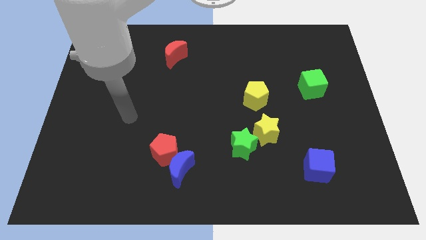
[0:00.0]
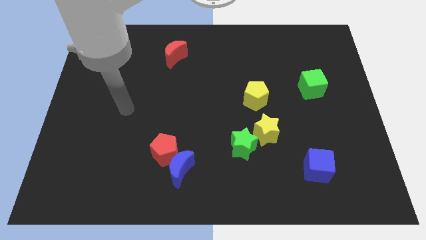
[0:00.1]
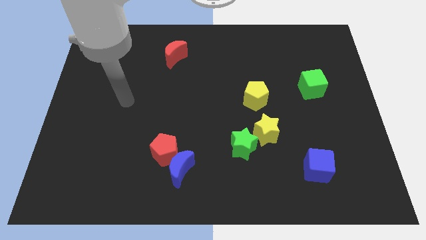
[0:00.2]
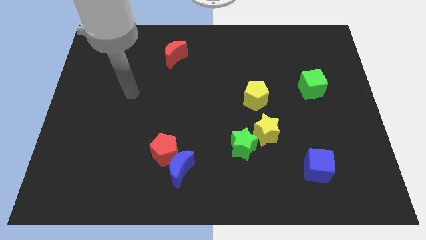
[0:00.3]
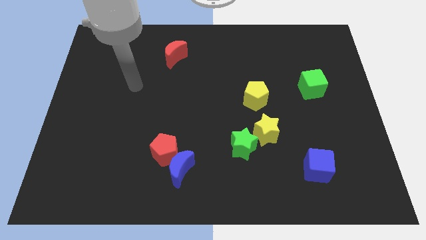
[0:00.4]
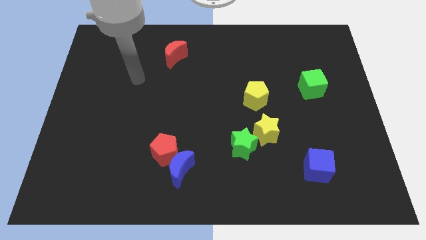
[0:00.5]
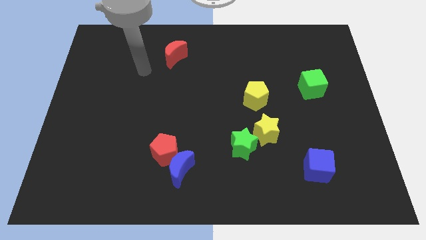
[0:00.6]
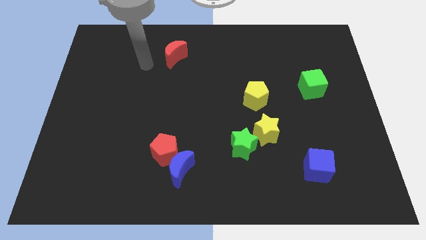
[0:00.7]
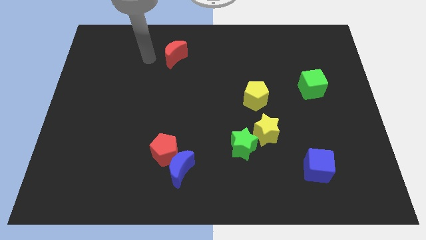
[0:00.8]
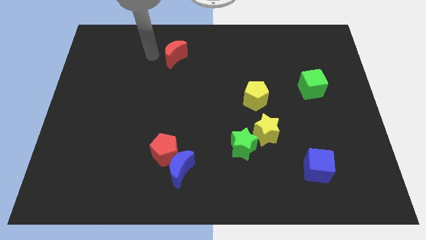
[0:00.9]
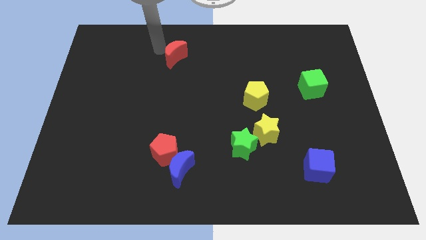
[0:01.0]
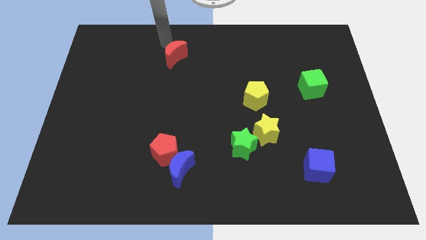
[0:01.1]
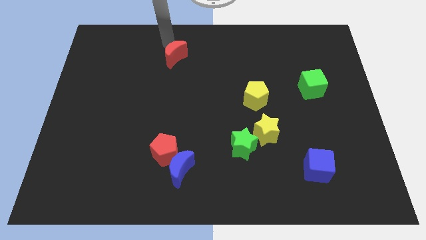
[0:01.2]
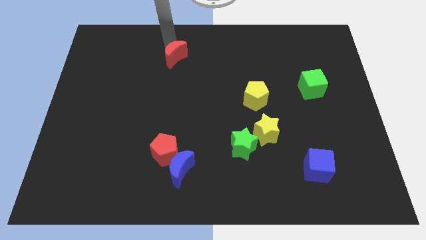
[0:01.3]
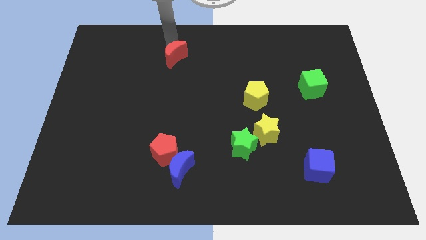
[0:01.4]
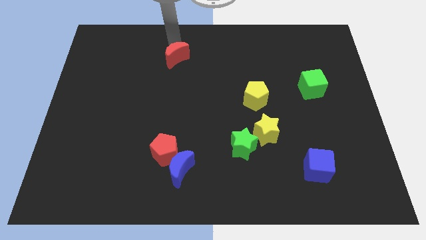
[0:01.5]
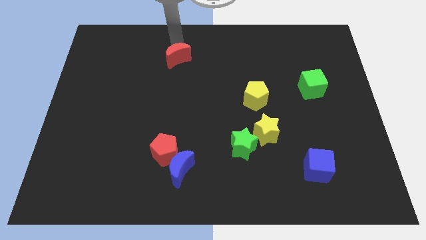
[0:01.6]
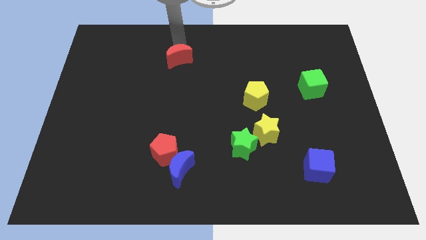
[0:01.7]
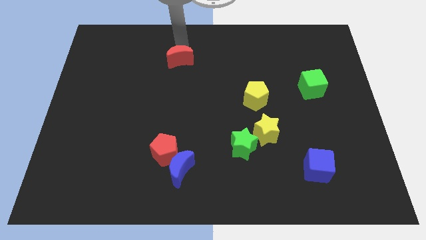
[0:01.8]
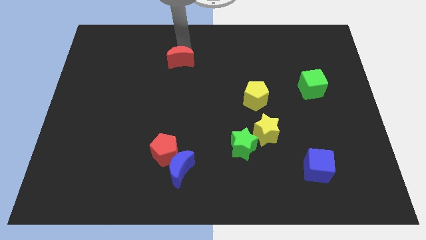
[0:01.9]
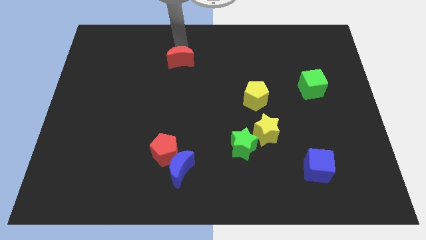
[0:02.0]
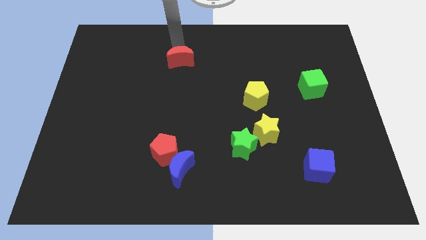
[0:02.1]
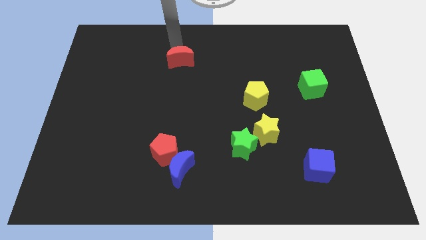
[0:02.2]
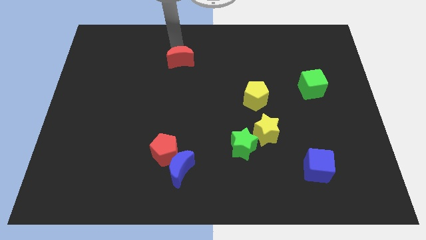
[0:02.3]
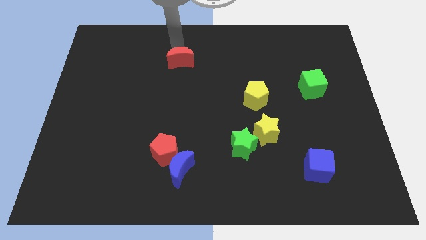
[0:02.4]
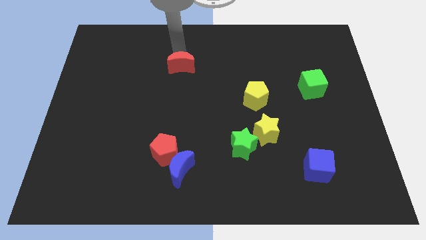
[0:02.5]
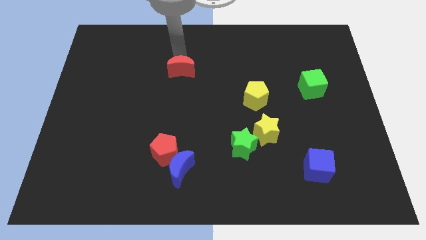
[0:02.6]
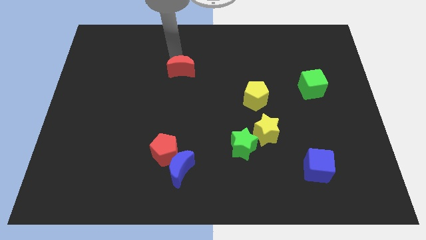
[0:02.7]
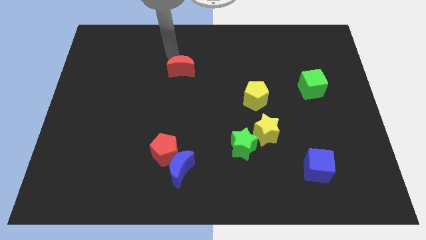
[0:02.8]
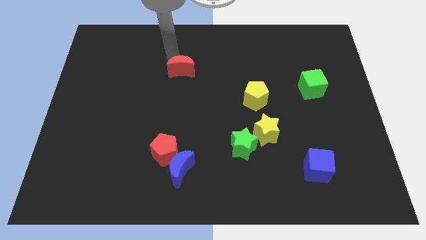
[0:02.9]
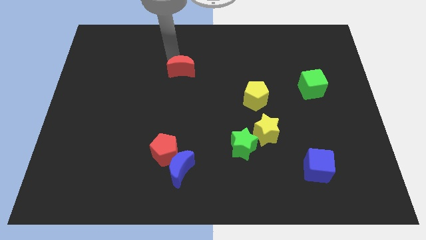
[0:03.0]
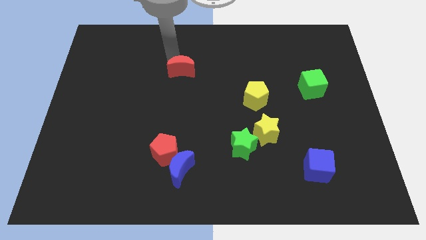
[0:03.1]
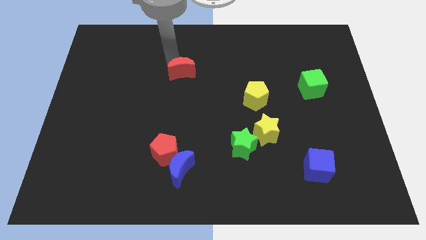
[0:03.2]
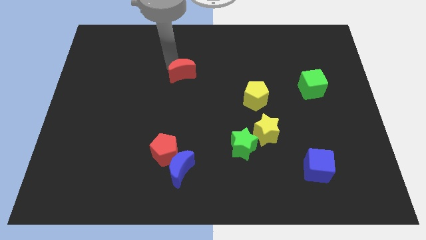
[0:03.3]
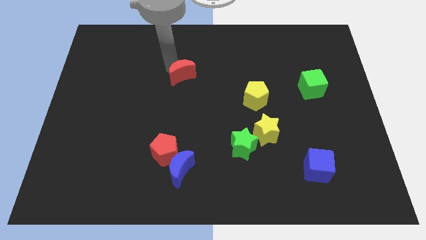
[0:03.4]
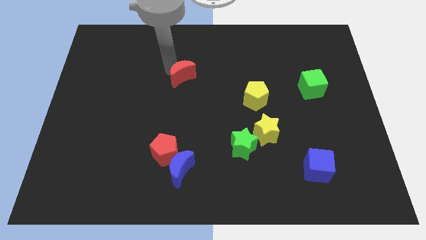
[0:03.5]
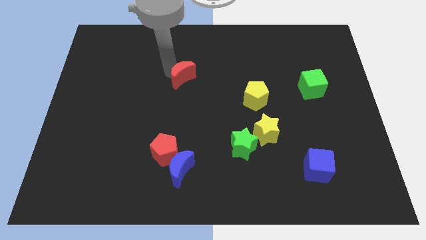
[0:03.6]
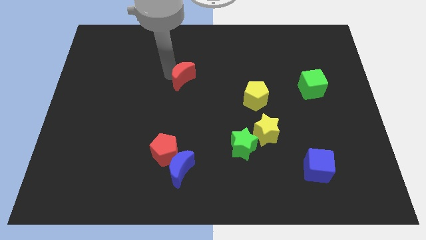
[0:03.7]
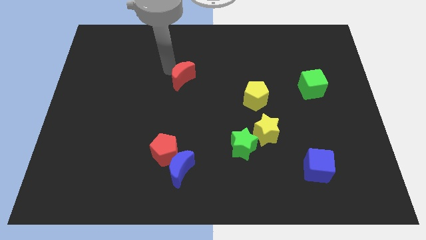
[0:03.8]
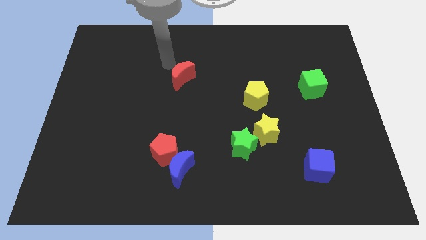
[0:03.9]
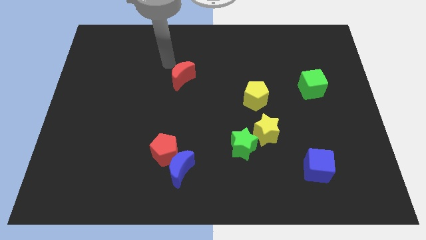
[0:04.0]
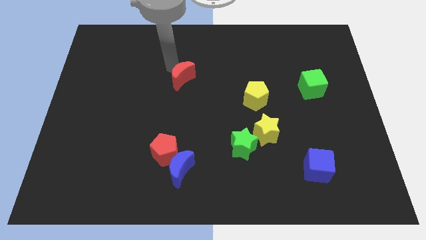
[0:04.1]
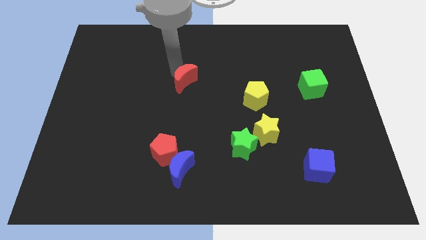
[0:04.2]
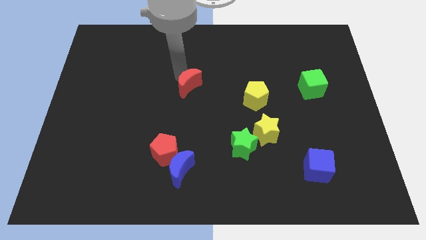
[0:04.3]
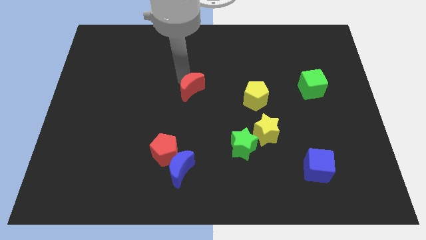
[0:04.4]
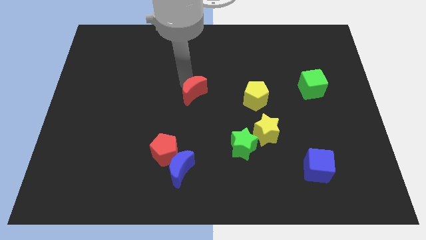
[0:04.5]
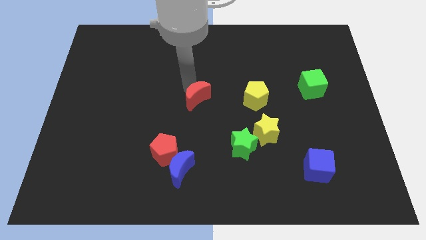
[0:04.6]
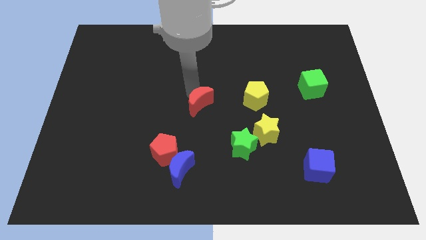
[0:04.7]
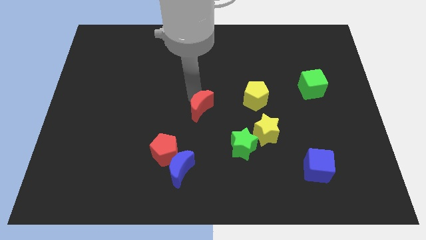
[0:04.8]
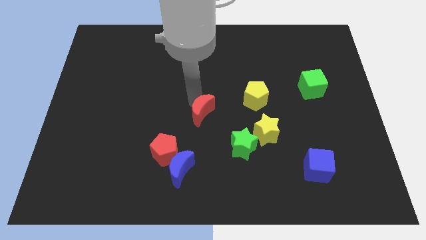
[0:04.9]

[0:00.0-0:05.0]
push the red moon to the top left of the green star

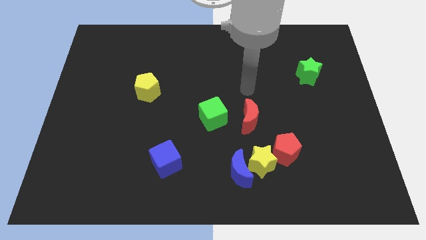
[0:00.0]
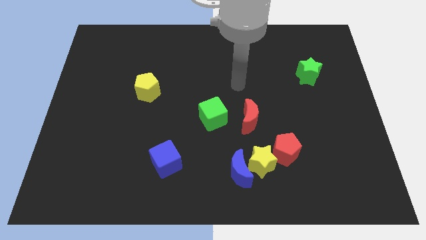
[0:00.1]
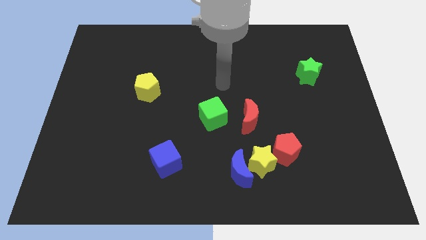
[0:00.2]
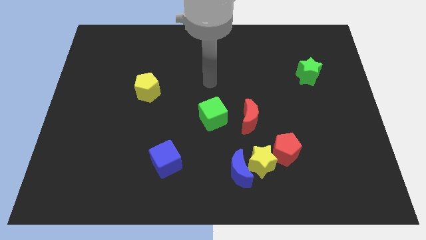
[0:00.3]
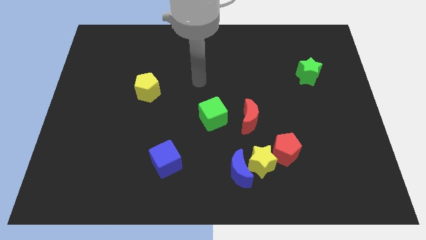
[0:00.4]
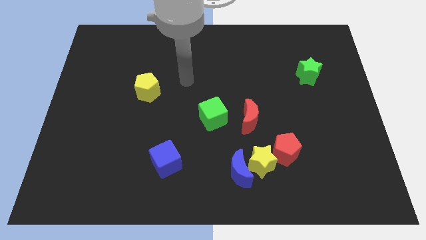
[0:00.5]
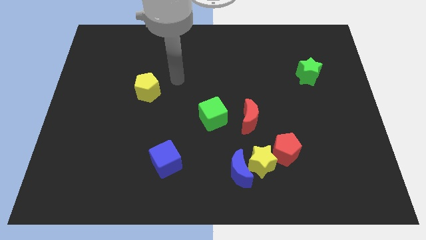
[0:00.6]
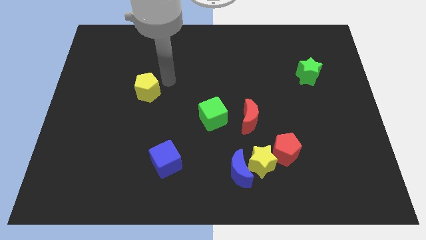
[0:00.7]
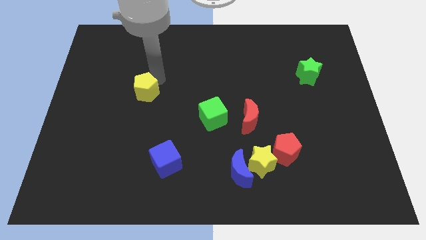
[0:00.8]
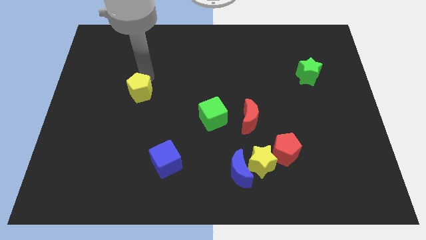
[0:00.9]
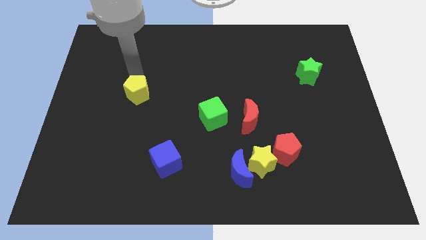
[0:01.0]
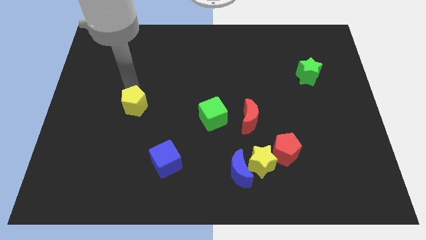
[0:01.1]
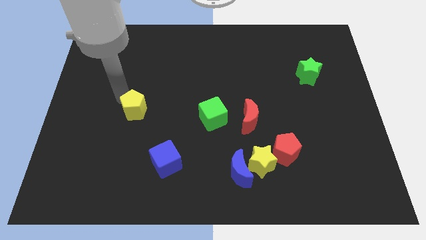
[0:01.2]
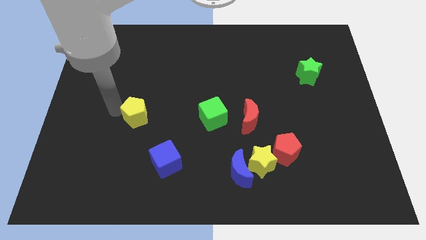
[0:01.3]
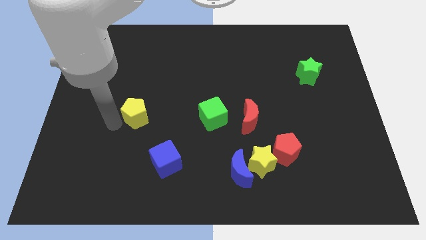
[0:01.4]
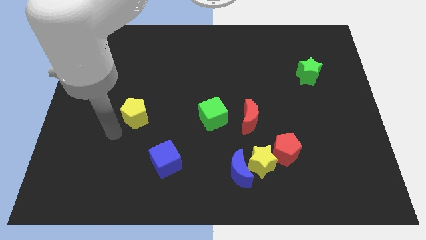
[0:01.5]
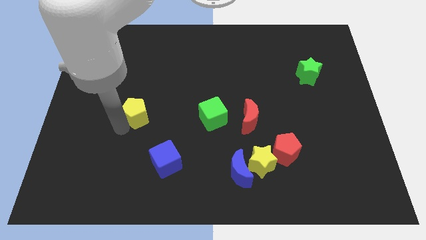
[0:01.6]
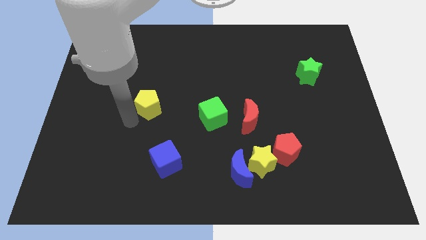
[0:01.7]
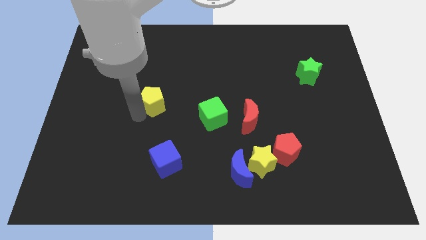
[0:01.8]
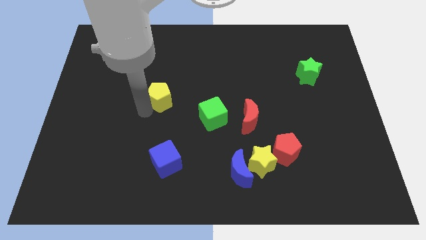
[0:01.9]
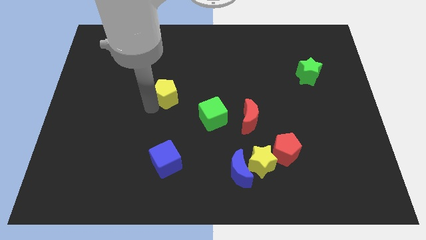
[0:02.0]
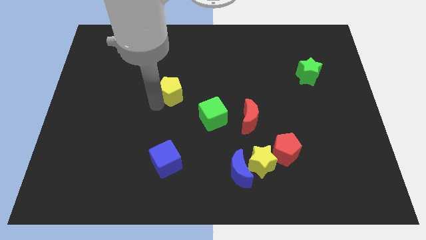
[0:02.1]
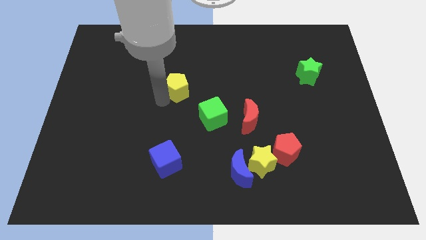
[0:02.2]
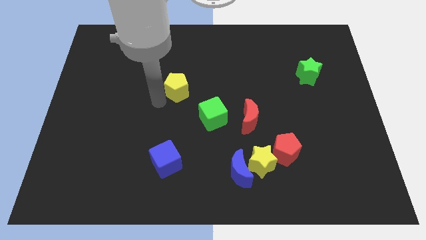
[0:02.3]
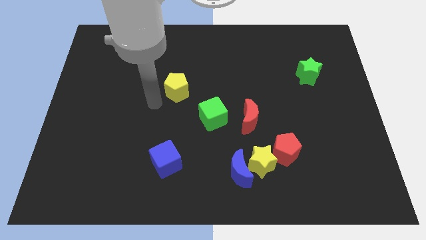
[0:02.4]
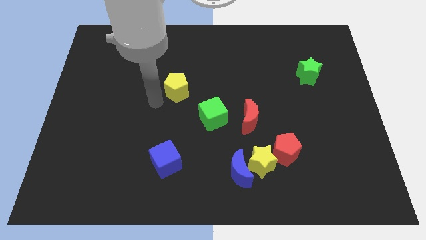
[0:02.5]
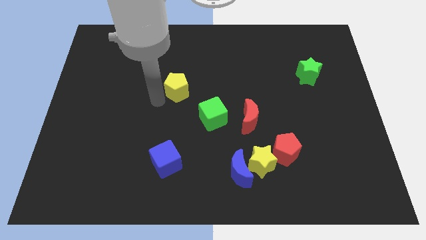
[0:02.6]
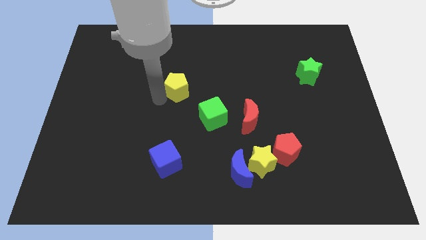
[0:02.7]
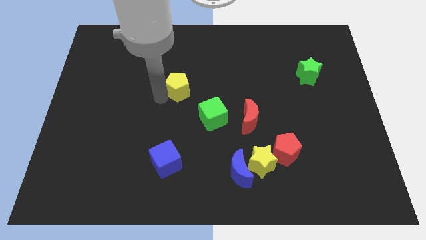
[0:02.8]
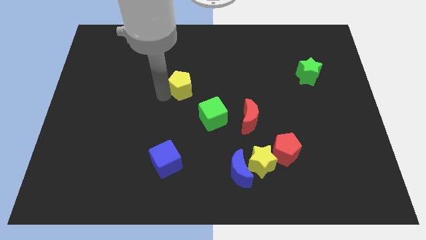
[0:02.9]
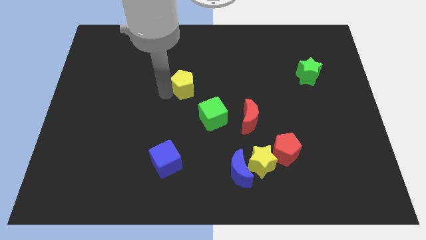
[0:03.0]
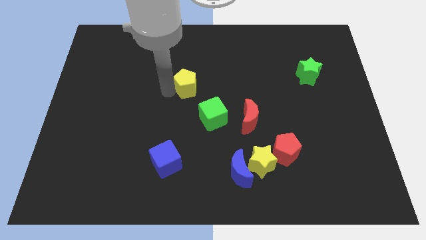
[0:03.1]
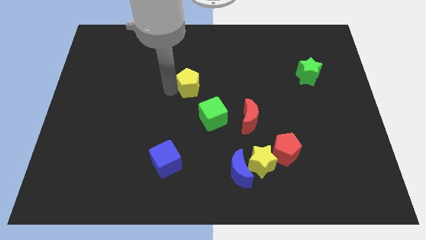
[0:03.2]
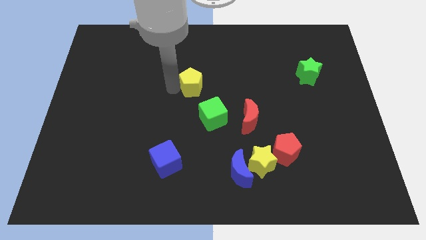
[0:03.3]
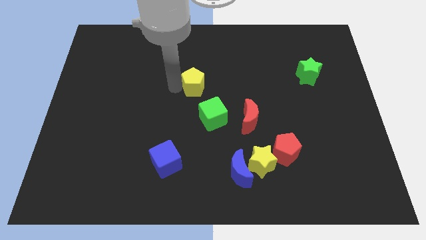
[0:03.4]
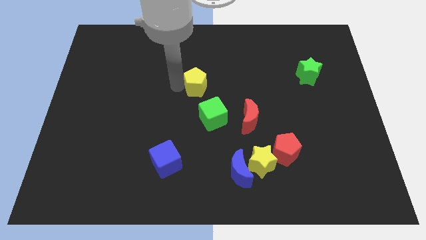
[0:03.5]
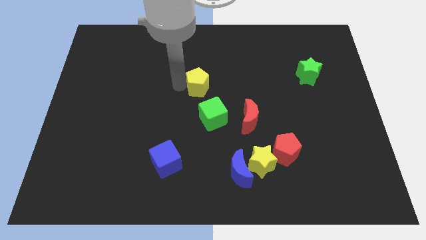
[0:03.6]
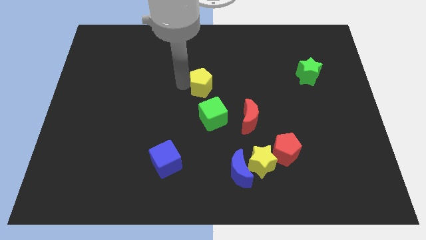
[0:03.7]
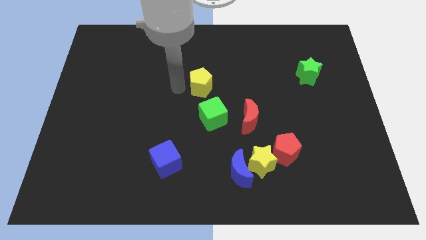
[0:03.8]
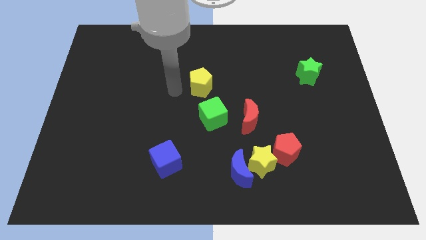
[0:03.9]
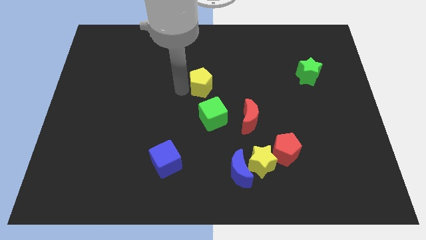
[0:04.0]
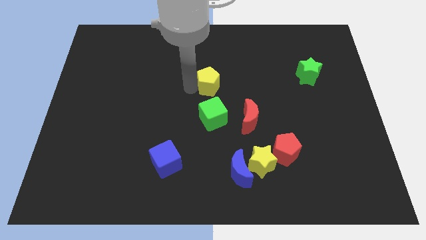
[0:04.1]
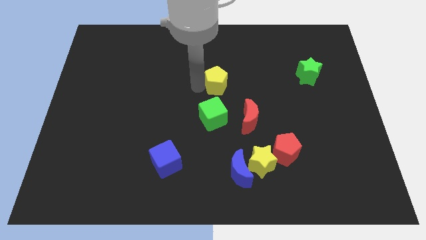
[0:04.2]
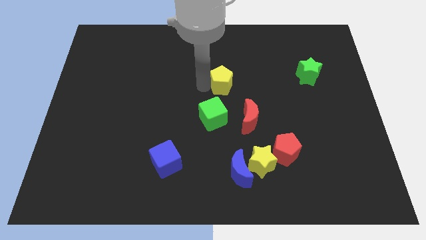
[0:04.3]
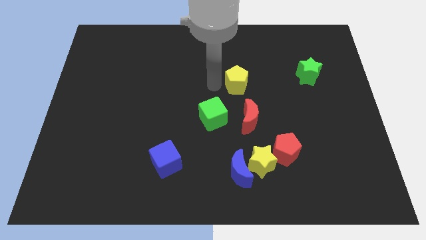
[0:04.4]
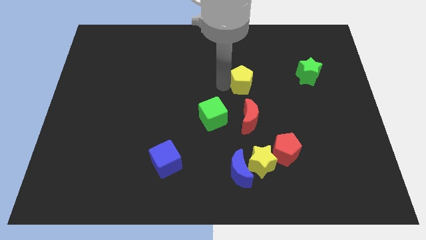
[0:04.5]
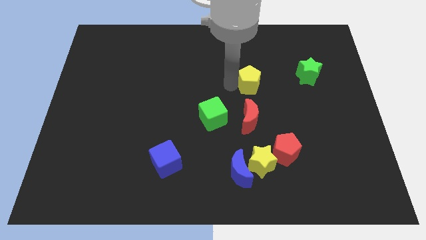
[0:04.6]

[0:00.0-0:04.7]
move the yellow pentagon left of the green star
